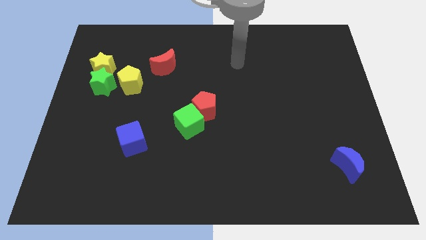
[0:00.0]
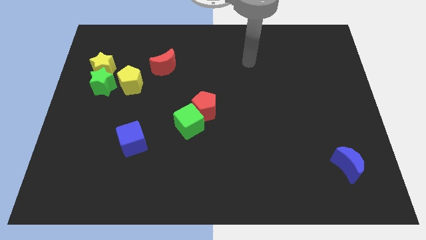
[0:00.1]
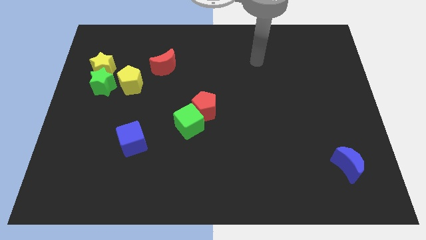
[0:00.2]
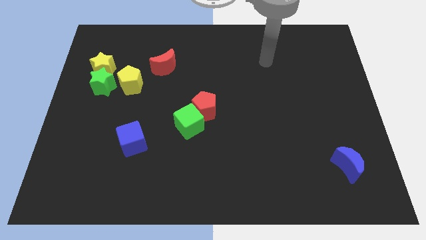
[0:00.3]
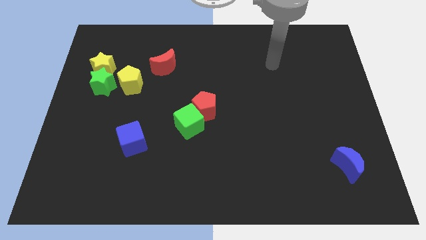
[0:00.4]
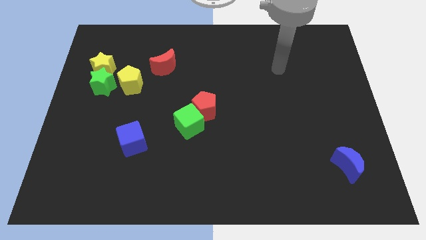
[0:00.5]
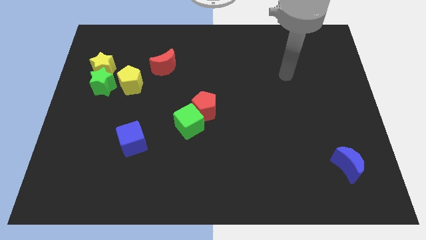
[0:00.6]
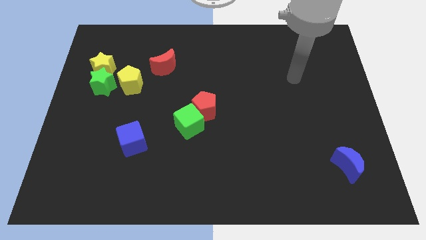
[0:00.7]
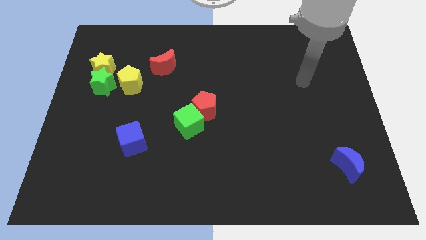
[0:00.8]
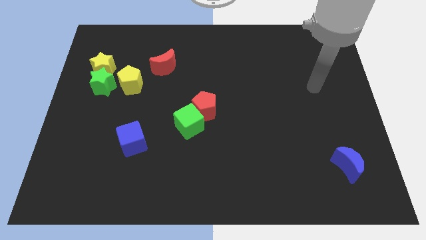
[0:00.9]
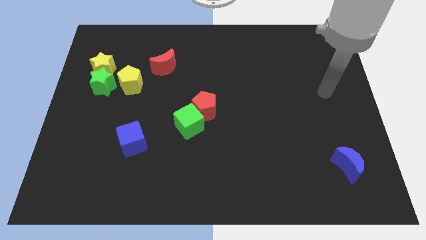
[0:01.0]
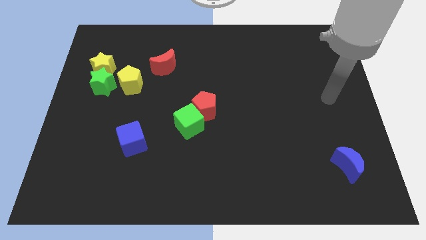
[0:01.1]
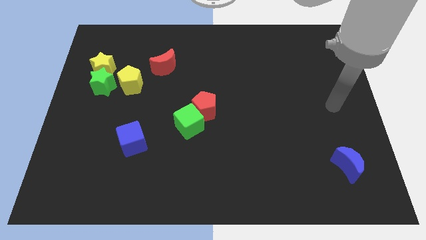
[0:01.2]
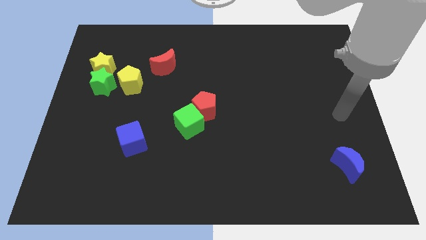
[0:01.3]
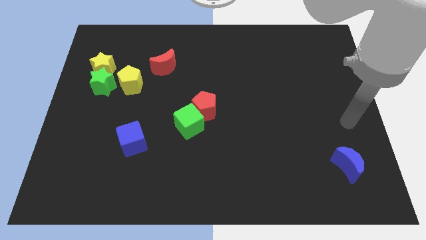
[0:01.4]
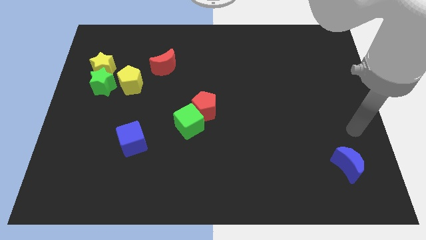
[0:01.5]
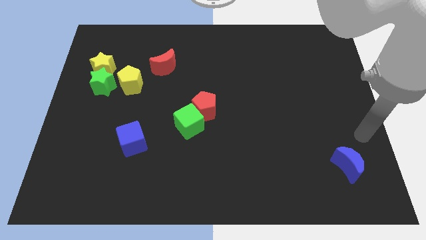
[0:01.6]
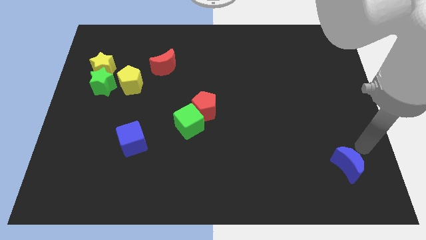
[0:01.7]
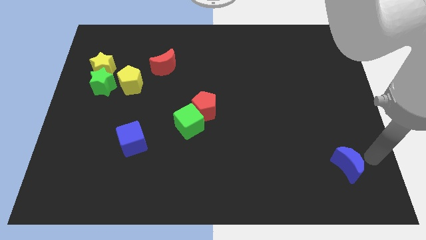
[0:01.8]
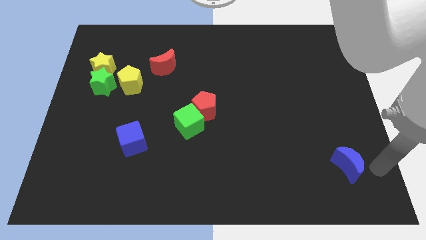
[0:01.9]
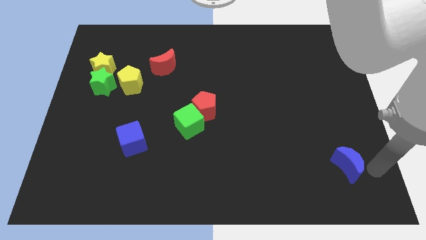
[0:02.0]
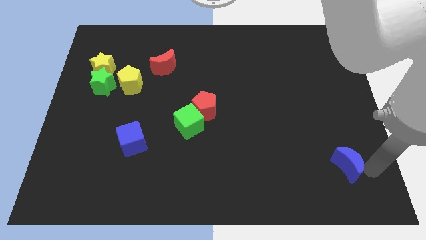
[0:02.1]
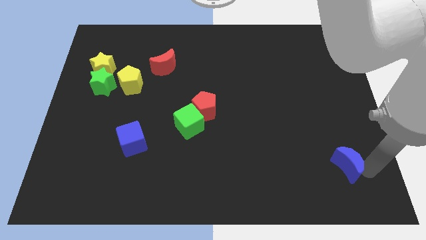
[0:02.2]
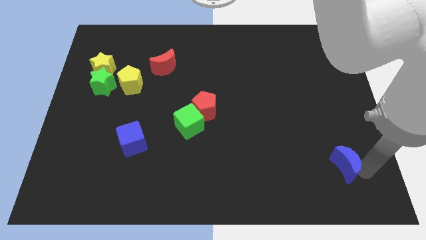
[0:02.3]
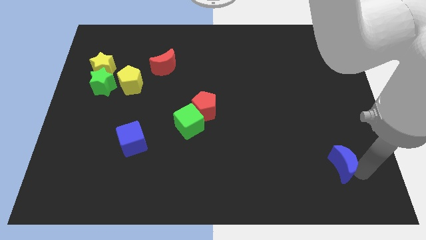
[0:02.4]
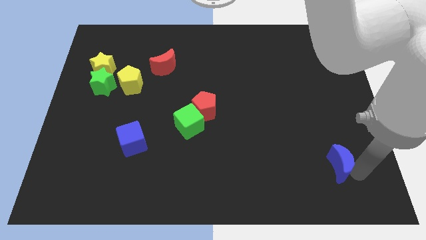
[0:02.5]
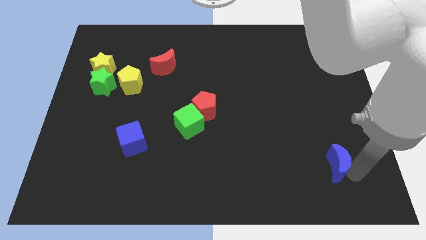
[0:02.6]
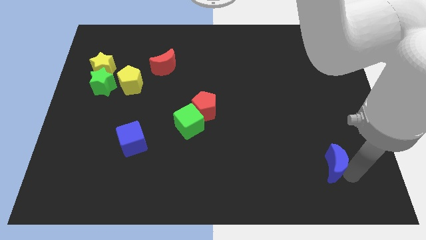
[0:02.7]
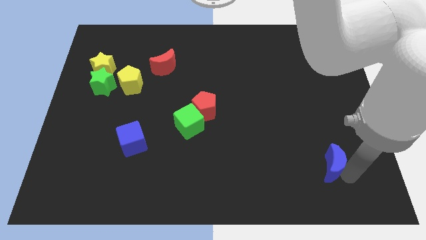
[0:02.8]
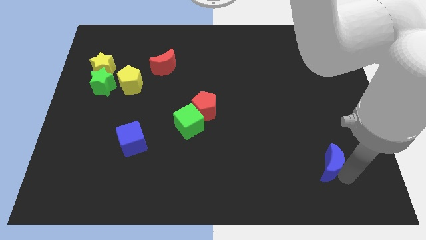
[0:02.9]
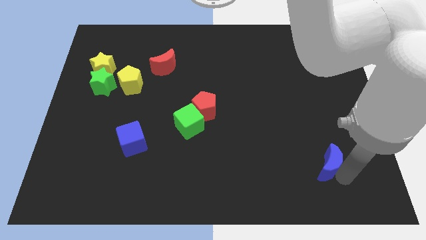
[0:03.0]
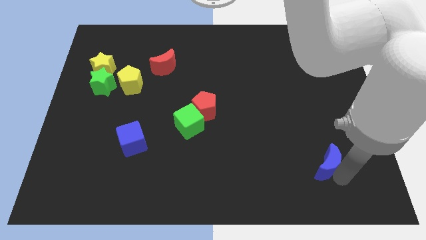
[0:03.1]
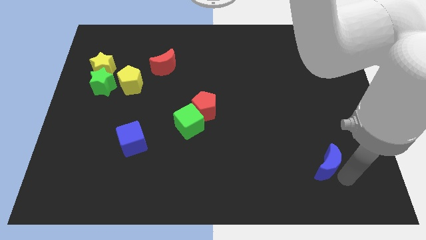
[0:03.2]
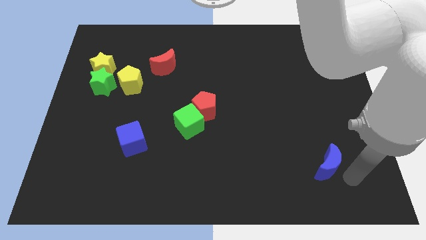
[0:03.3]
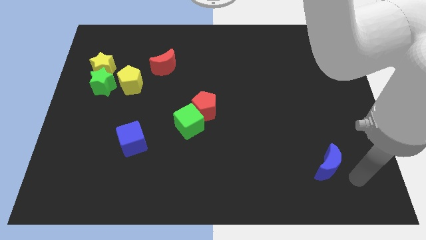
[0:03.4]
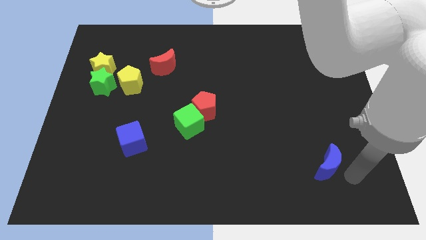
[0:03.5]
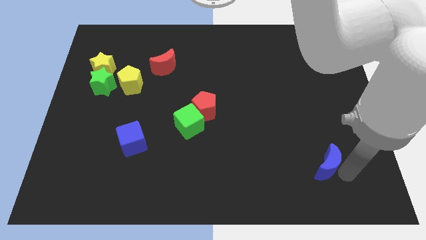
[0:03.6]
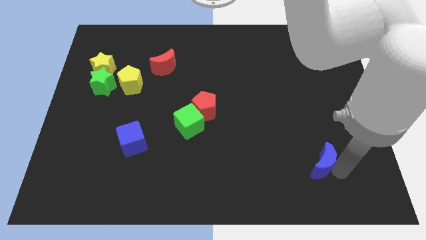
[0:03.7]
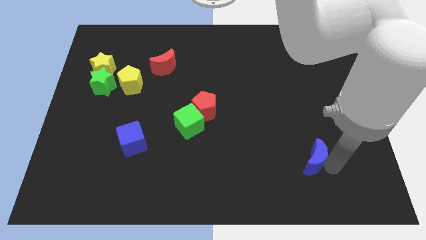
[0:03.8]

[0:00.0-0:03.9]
move the blue moon left a little bit

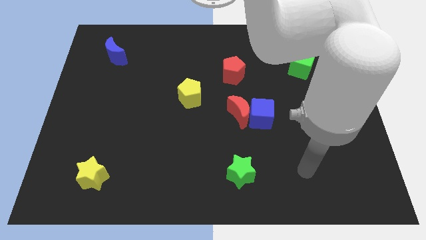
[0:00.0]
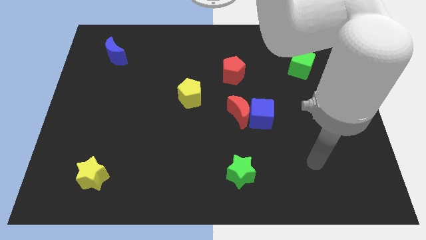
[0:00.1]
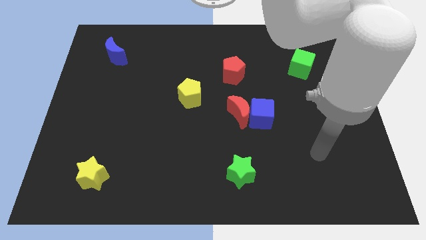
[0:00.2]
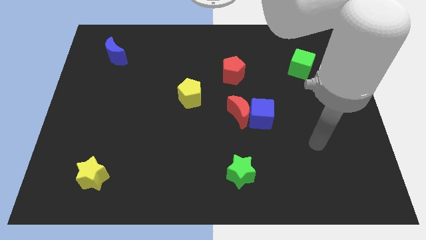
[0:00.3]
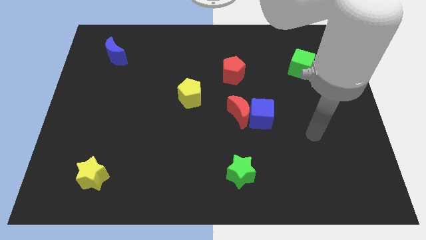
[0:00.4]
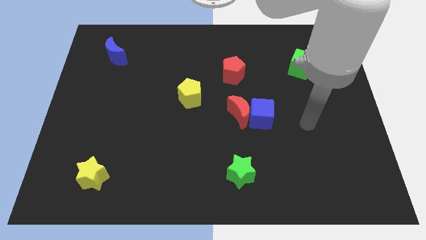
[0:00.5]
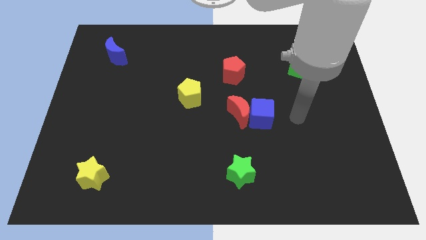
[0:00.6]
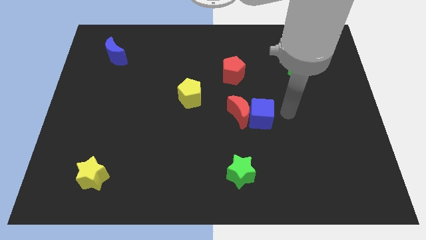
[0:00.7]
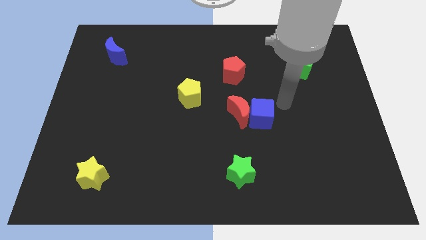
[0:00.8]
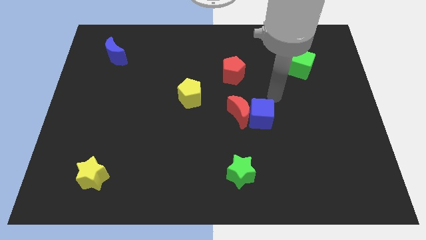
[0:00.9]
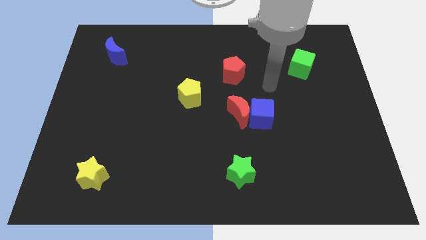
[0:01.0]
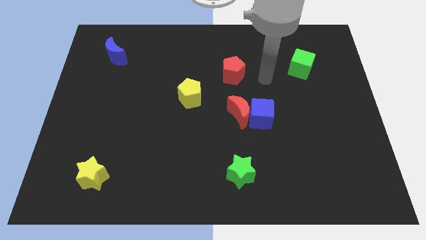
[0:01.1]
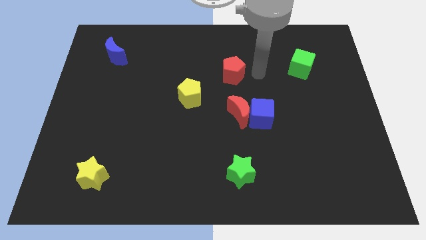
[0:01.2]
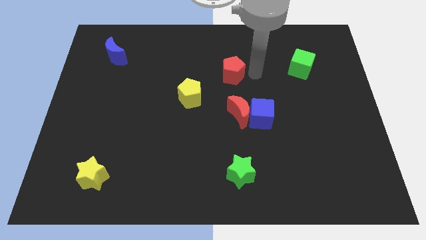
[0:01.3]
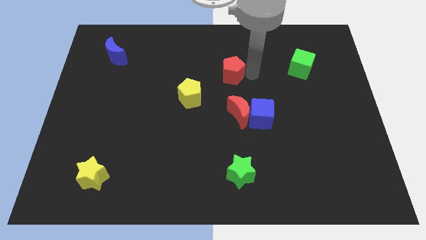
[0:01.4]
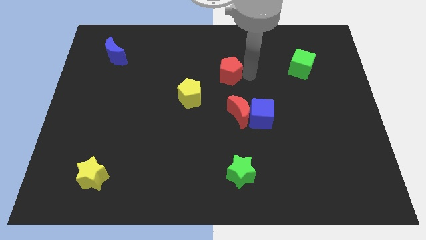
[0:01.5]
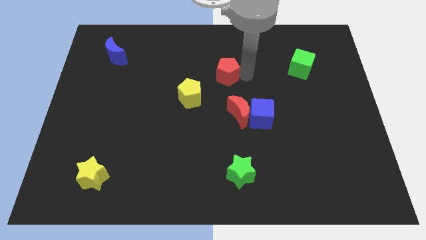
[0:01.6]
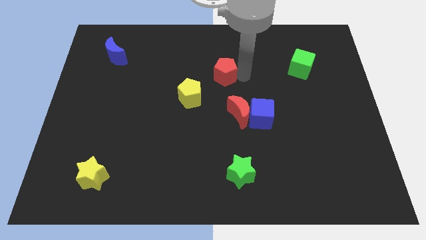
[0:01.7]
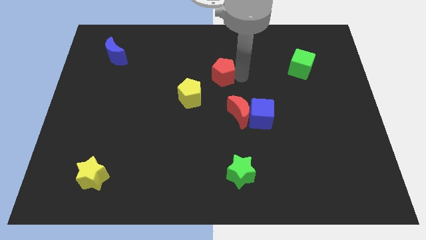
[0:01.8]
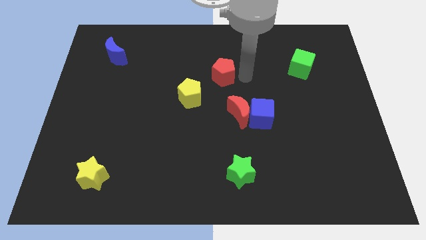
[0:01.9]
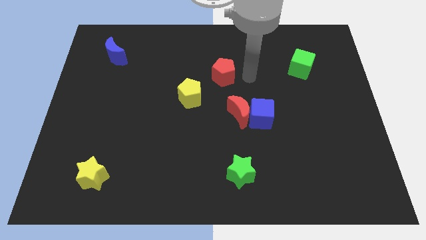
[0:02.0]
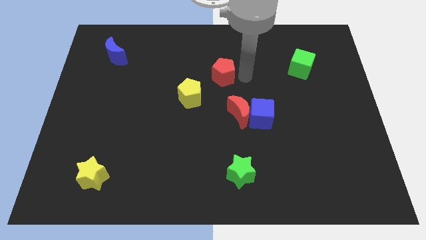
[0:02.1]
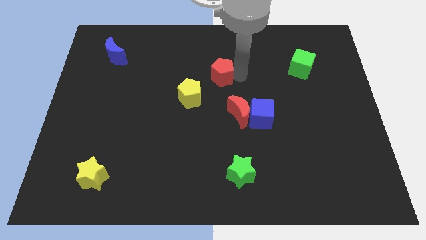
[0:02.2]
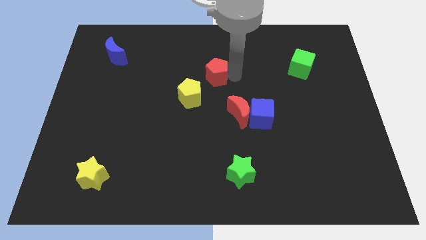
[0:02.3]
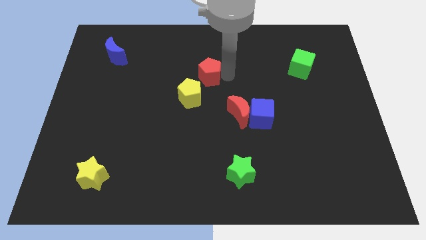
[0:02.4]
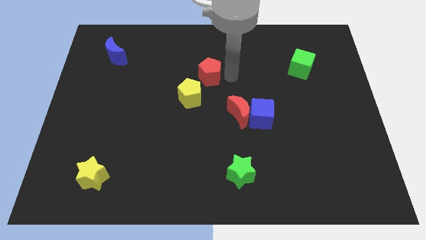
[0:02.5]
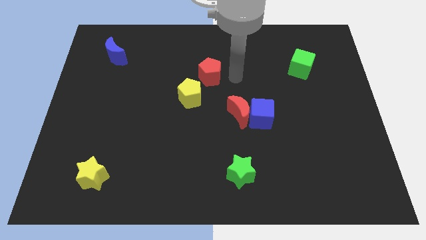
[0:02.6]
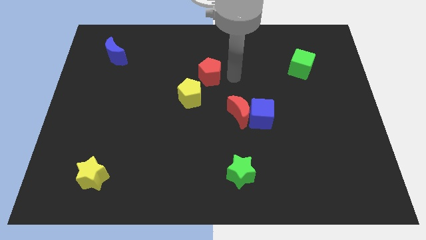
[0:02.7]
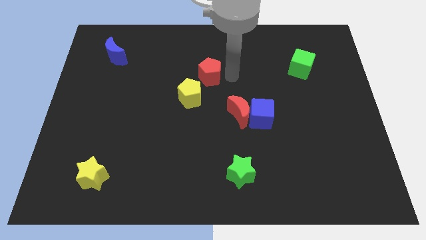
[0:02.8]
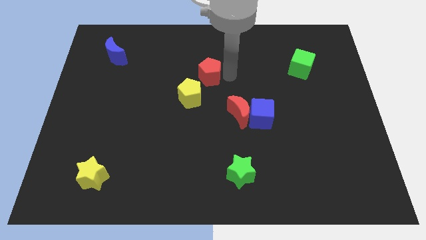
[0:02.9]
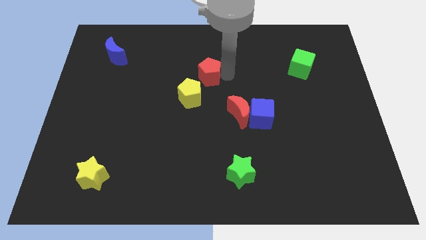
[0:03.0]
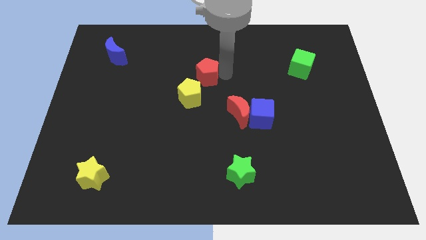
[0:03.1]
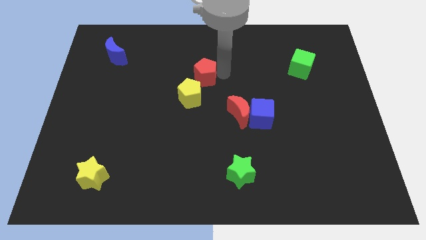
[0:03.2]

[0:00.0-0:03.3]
slightly push the red pentagon to the left

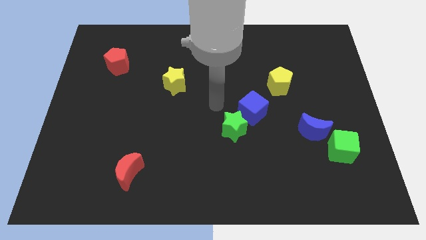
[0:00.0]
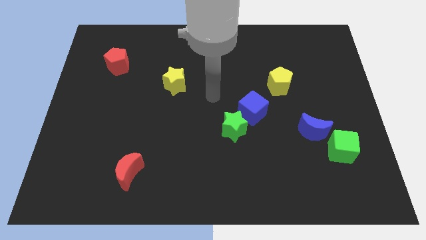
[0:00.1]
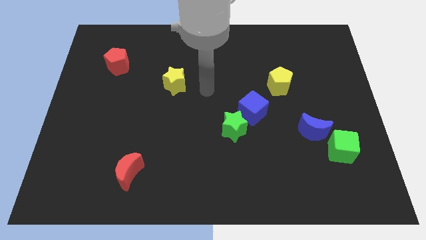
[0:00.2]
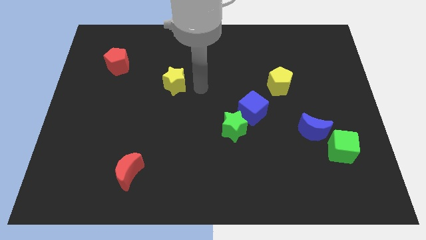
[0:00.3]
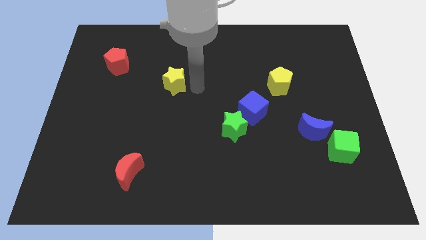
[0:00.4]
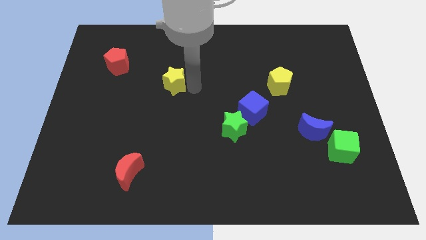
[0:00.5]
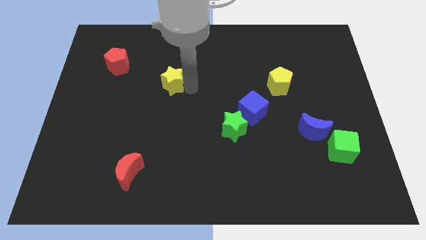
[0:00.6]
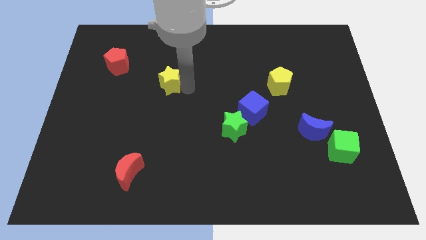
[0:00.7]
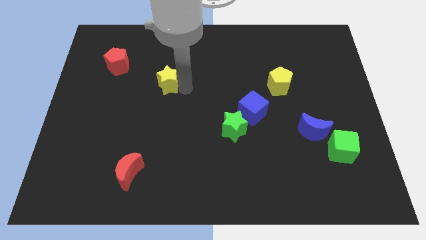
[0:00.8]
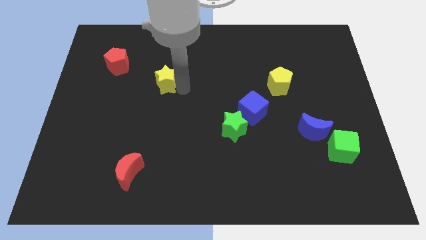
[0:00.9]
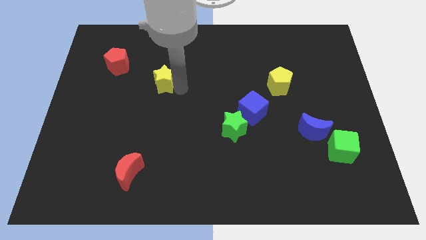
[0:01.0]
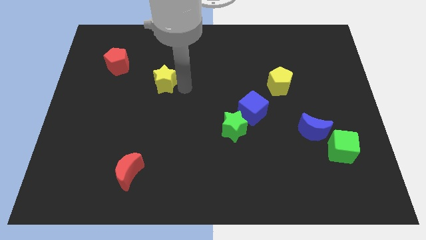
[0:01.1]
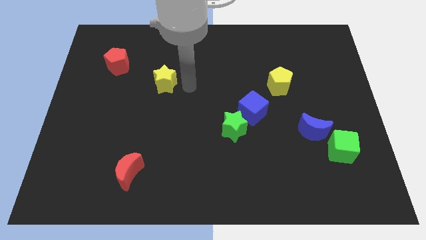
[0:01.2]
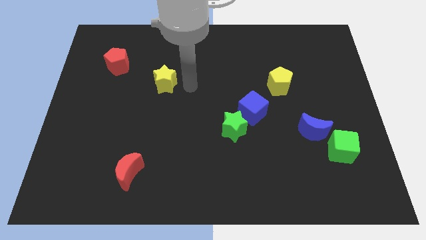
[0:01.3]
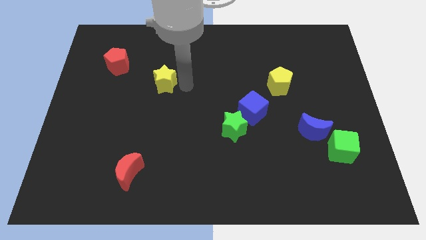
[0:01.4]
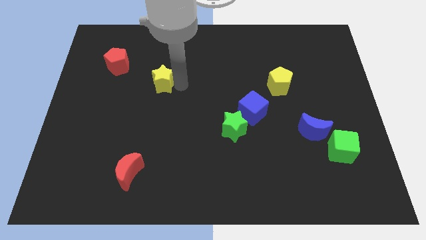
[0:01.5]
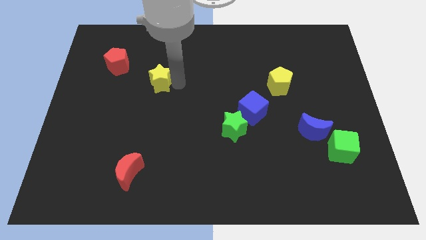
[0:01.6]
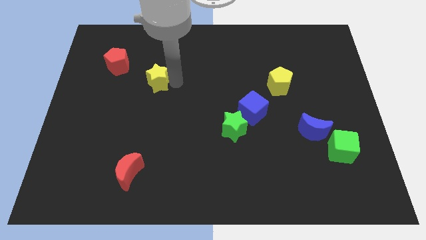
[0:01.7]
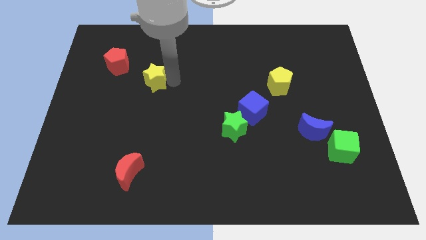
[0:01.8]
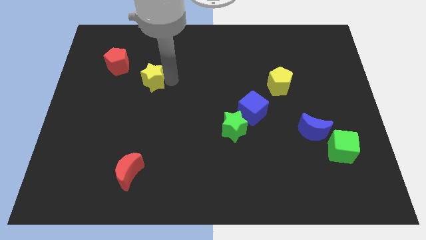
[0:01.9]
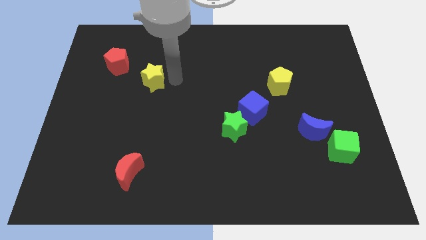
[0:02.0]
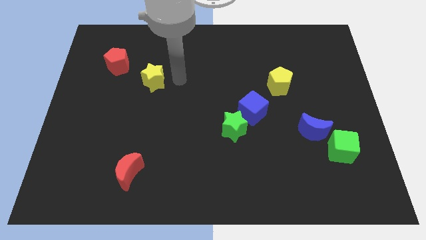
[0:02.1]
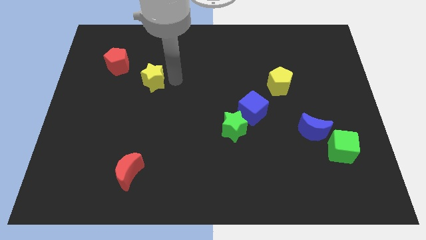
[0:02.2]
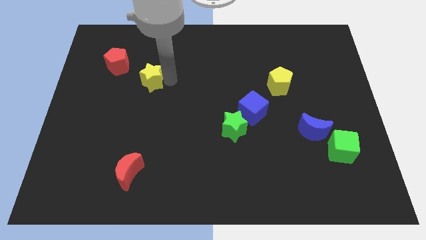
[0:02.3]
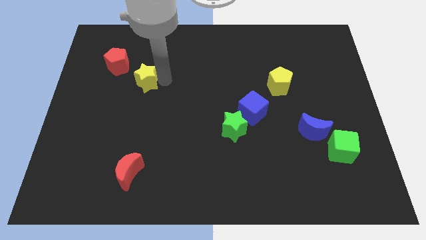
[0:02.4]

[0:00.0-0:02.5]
slide the yellow star left a little
